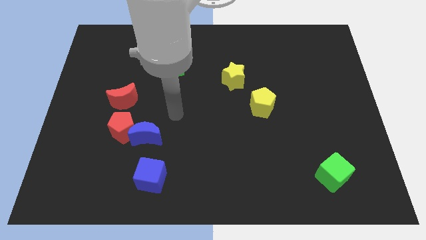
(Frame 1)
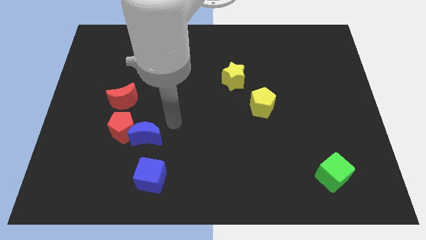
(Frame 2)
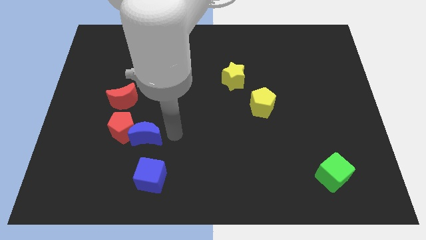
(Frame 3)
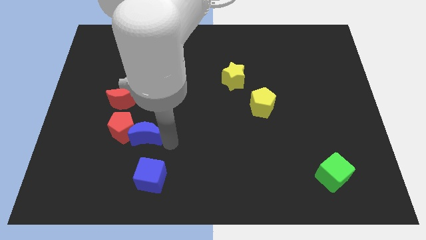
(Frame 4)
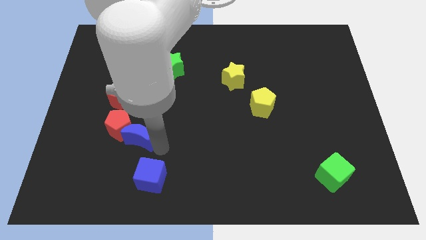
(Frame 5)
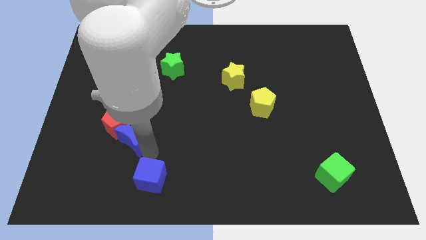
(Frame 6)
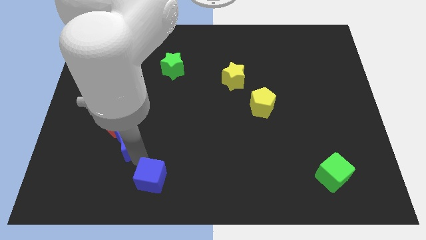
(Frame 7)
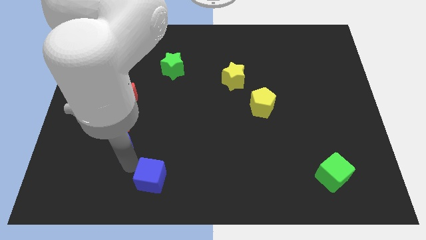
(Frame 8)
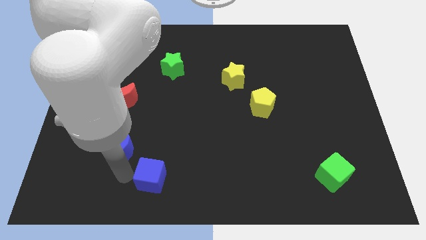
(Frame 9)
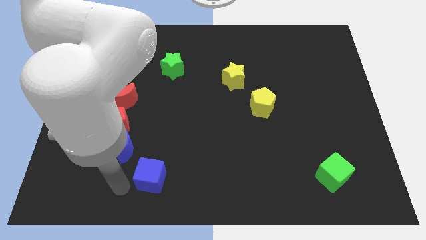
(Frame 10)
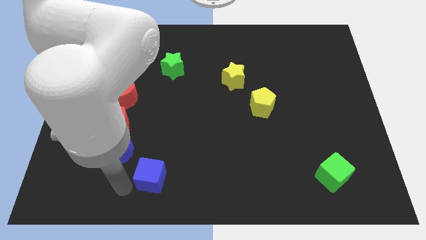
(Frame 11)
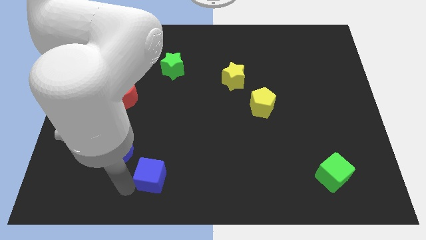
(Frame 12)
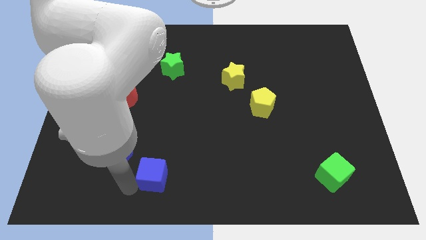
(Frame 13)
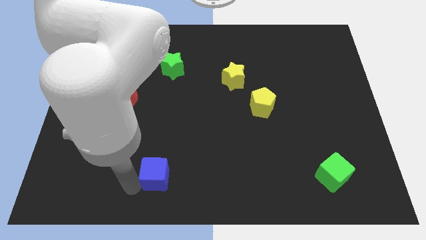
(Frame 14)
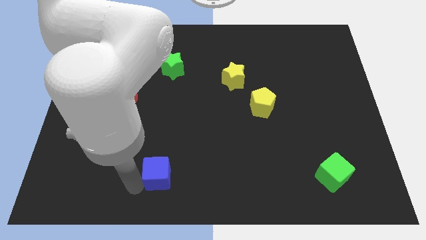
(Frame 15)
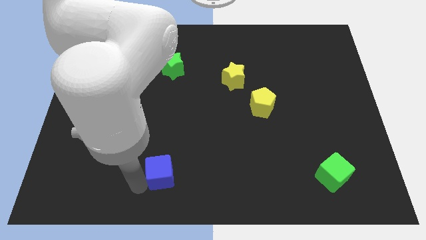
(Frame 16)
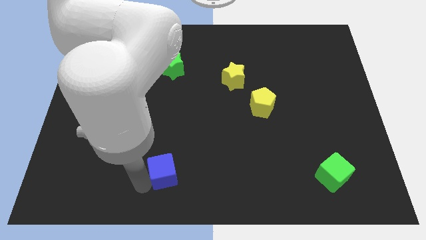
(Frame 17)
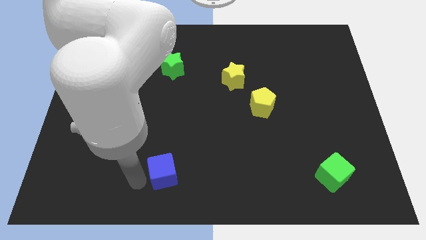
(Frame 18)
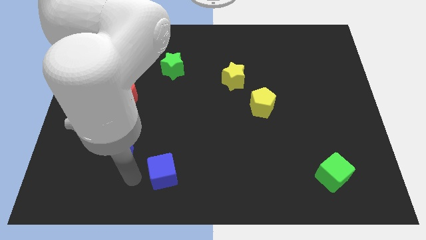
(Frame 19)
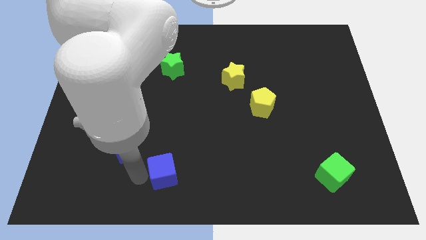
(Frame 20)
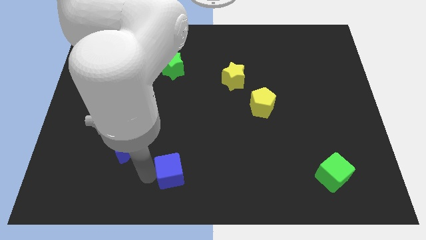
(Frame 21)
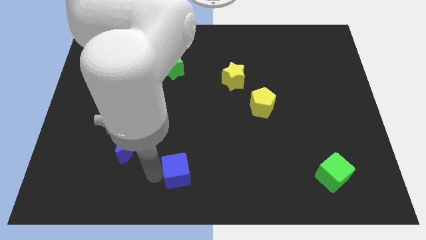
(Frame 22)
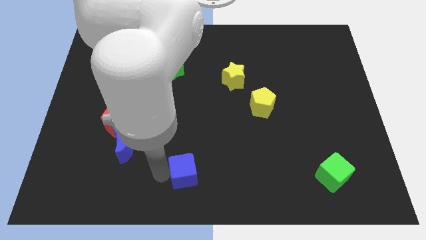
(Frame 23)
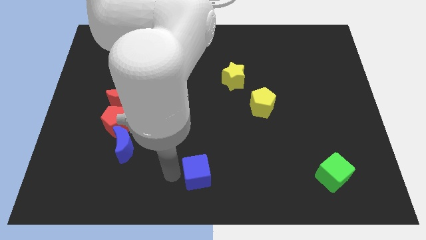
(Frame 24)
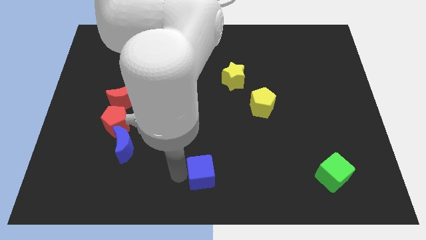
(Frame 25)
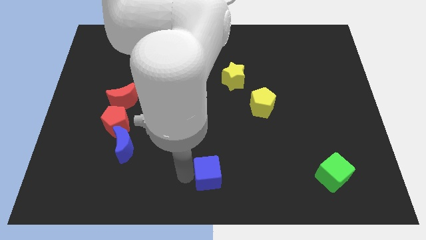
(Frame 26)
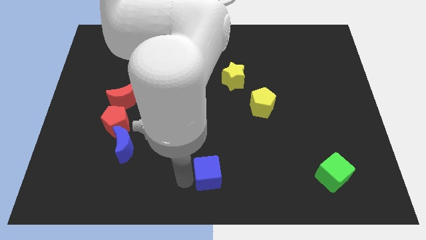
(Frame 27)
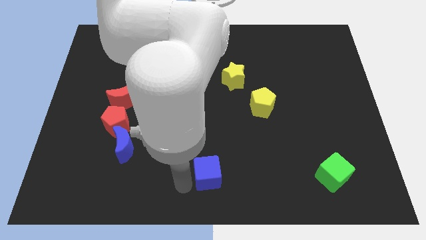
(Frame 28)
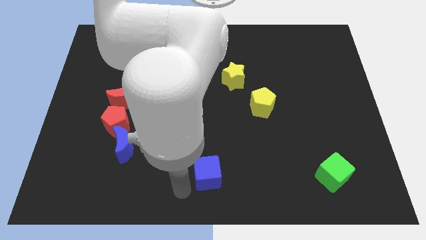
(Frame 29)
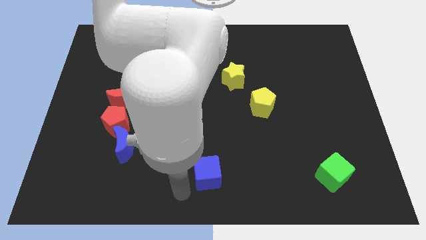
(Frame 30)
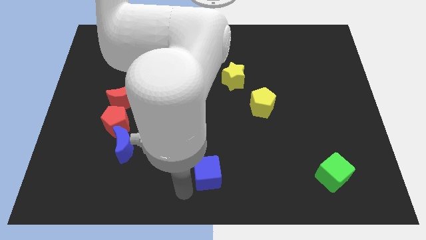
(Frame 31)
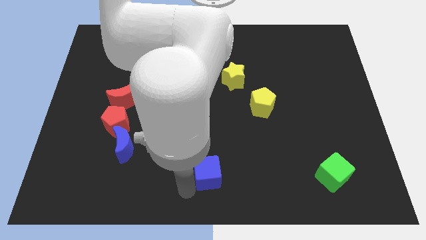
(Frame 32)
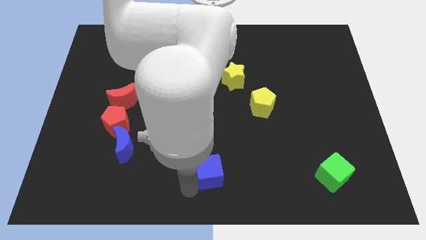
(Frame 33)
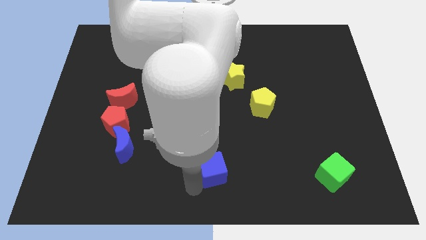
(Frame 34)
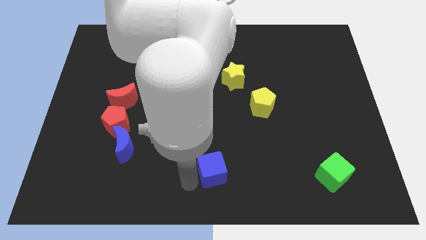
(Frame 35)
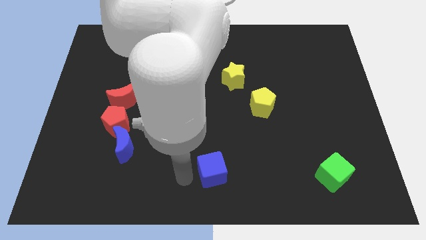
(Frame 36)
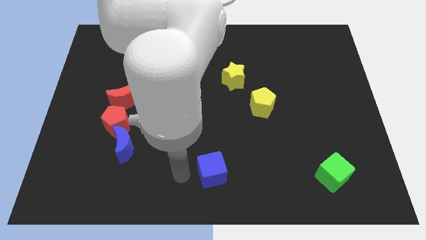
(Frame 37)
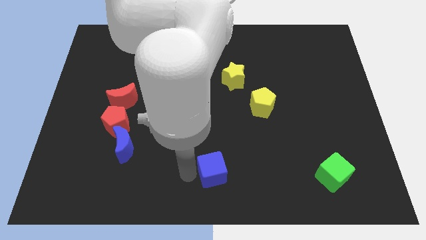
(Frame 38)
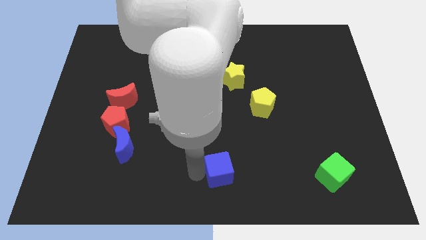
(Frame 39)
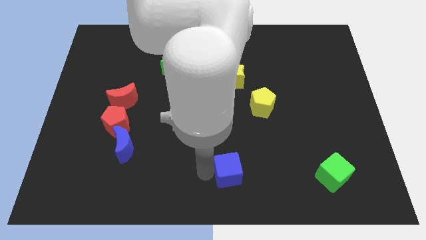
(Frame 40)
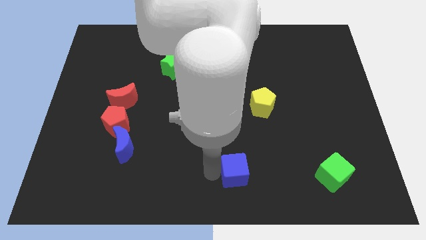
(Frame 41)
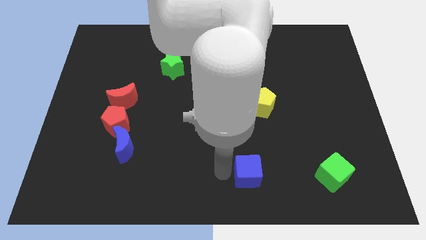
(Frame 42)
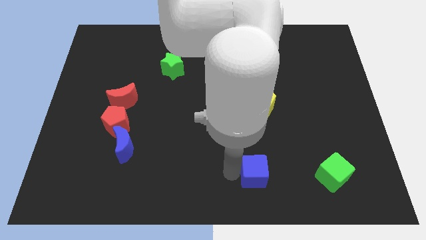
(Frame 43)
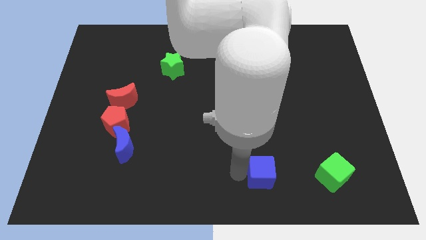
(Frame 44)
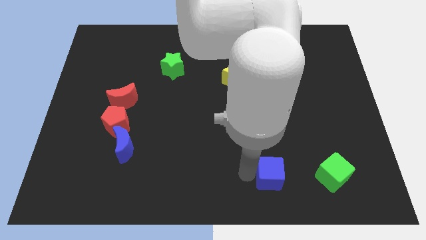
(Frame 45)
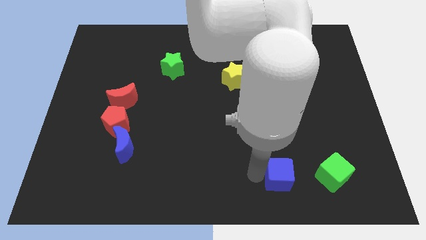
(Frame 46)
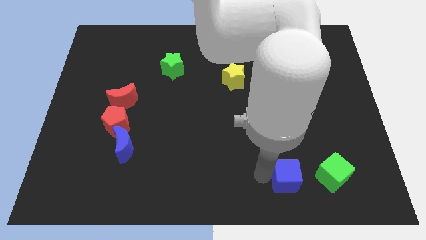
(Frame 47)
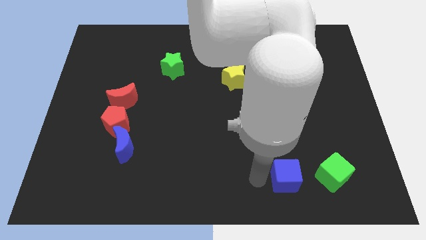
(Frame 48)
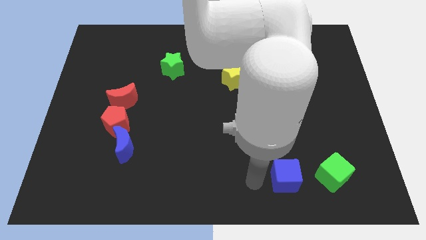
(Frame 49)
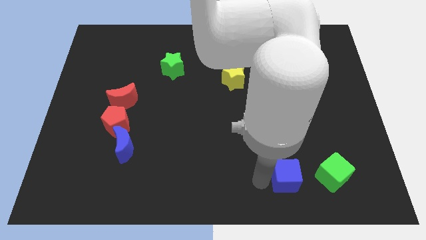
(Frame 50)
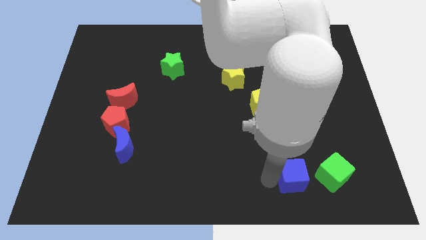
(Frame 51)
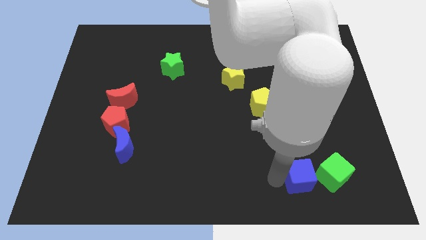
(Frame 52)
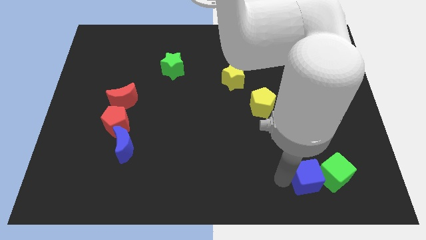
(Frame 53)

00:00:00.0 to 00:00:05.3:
push the blue cube next to the green cube

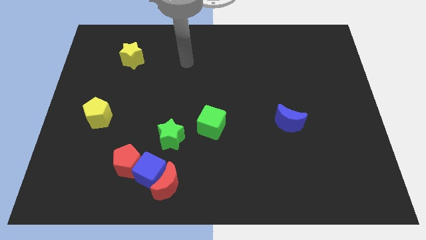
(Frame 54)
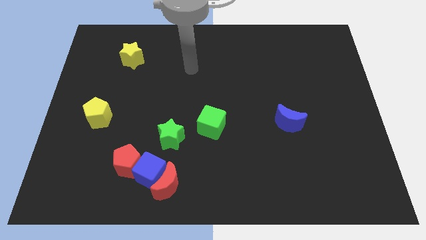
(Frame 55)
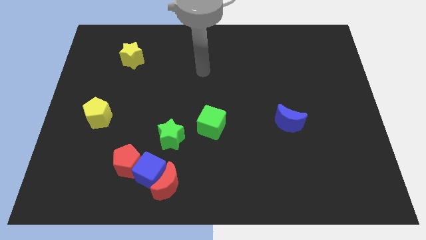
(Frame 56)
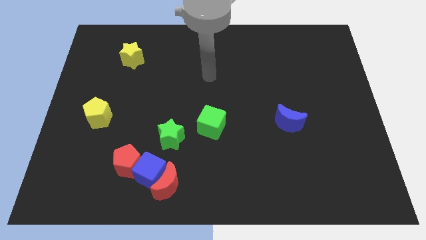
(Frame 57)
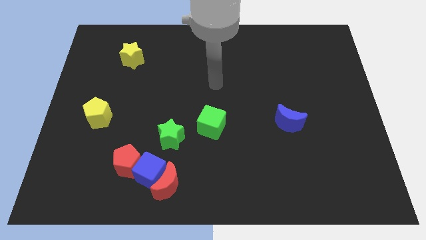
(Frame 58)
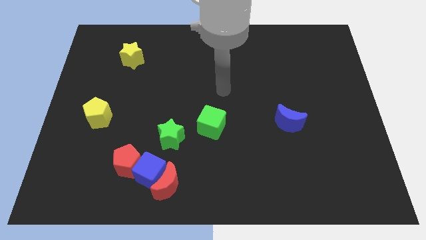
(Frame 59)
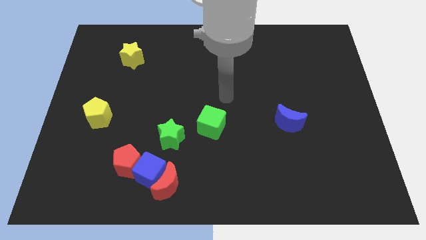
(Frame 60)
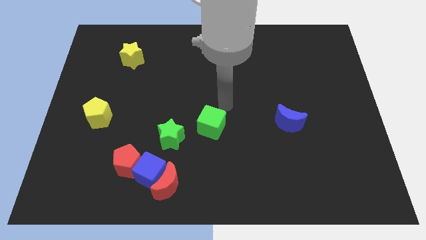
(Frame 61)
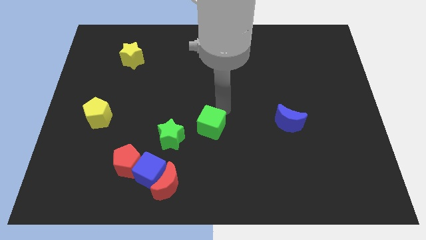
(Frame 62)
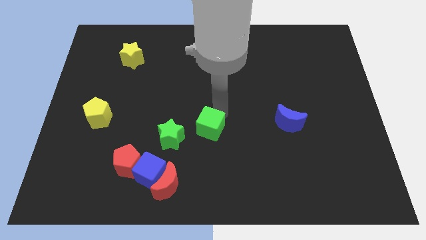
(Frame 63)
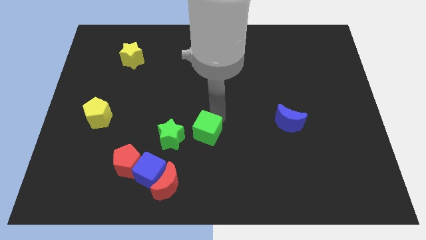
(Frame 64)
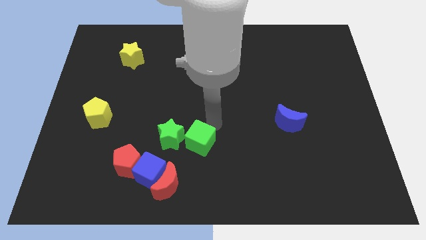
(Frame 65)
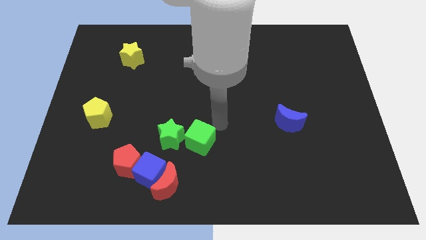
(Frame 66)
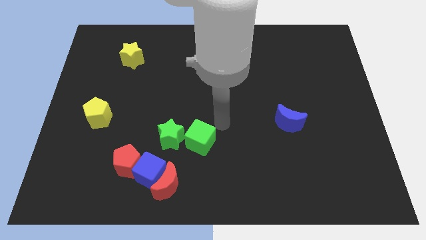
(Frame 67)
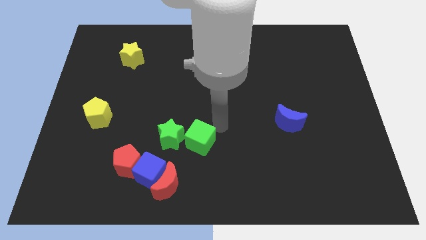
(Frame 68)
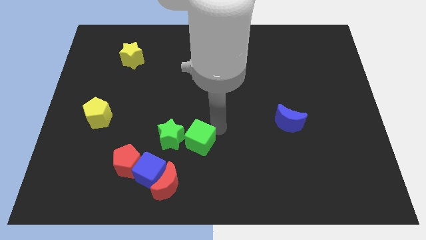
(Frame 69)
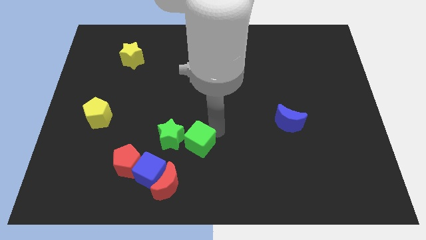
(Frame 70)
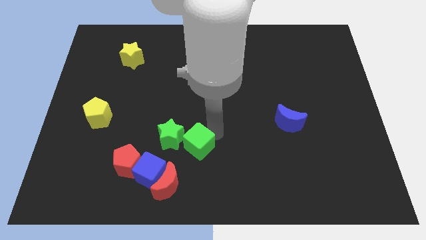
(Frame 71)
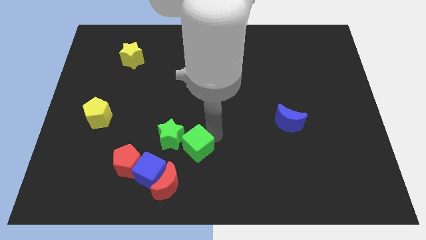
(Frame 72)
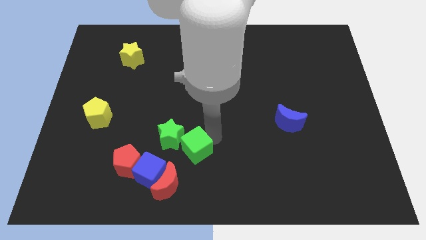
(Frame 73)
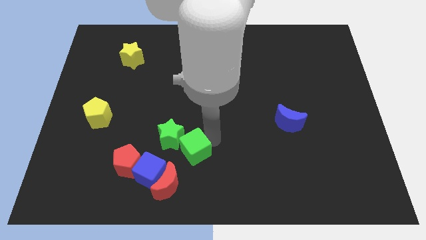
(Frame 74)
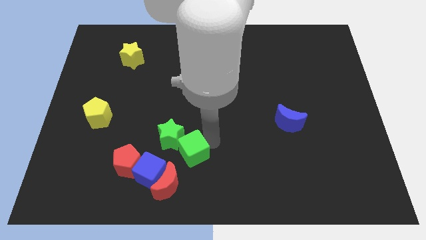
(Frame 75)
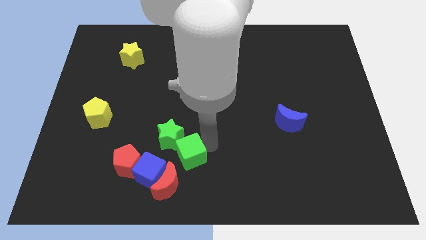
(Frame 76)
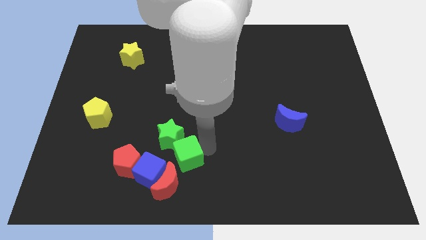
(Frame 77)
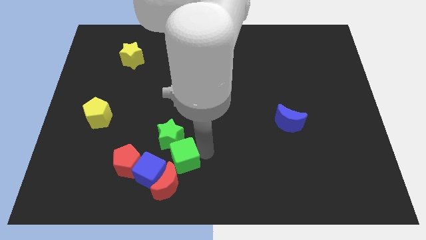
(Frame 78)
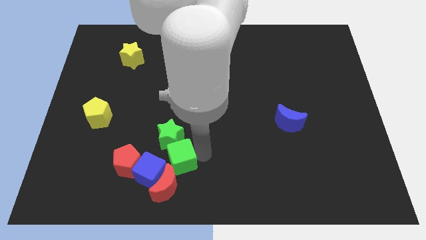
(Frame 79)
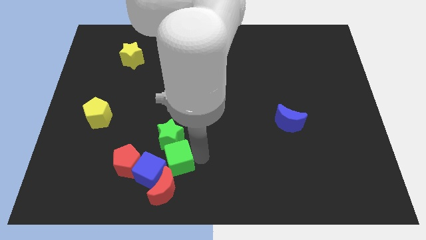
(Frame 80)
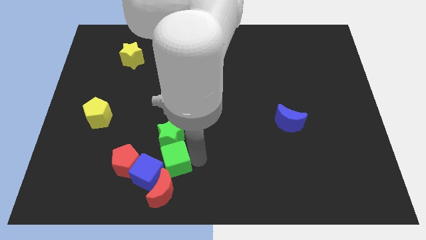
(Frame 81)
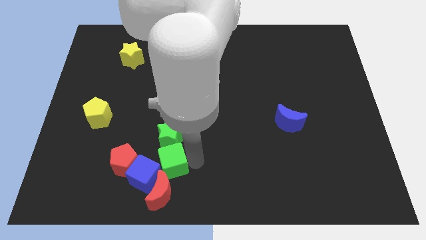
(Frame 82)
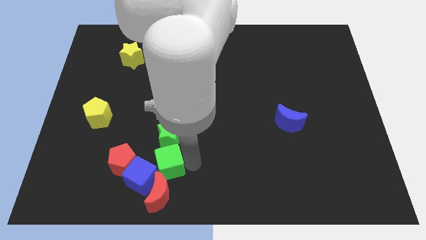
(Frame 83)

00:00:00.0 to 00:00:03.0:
put the green cube to the blue cube
